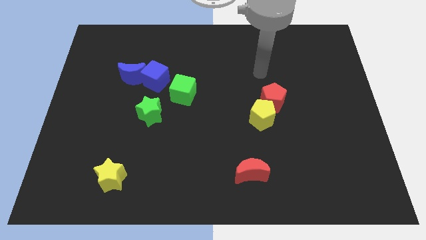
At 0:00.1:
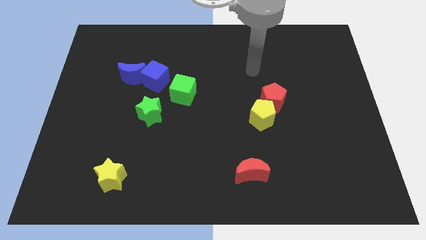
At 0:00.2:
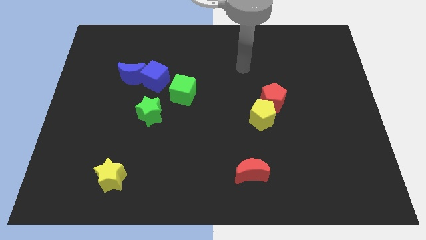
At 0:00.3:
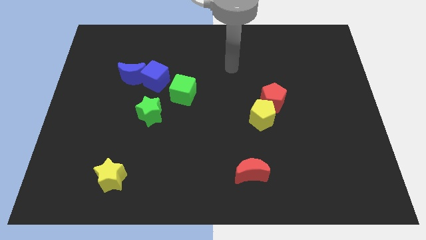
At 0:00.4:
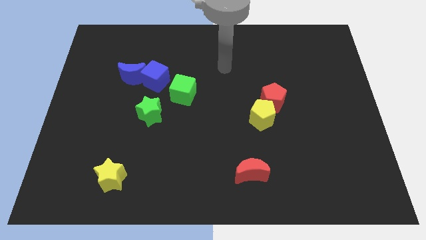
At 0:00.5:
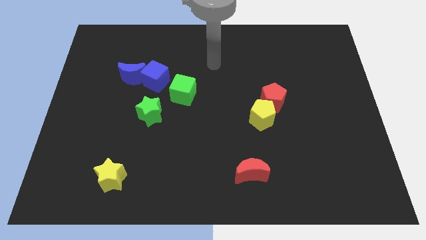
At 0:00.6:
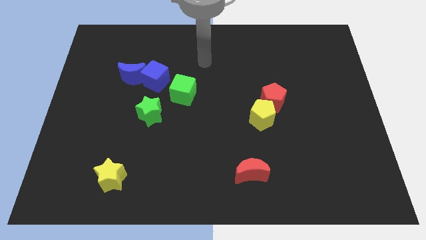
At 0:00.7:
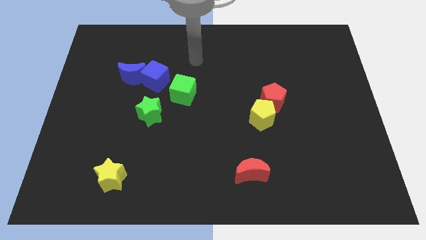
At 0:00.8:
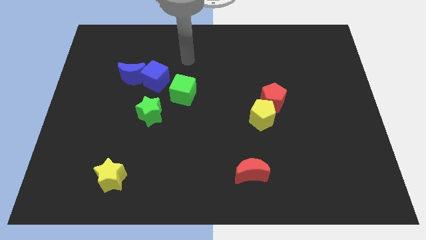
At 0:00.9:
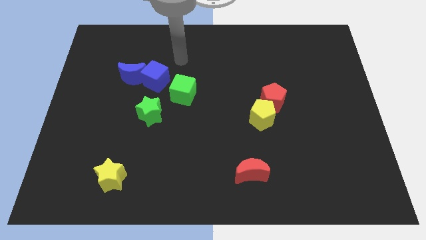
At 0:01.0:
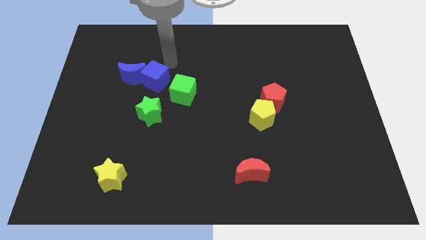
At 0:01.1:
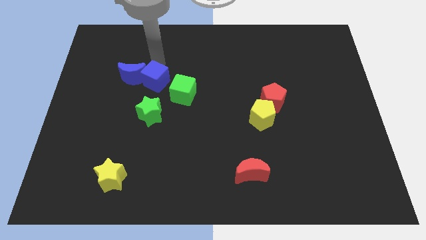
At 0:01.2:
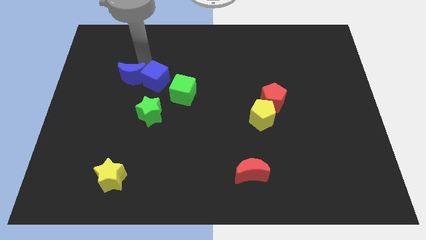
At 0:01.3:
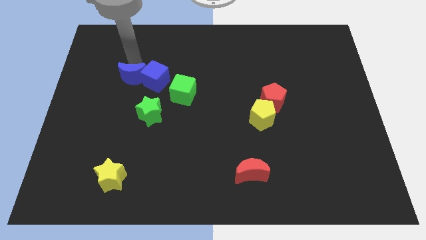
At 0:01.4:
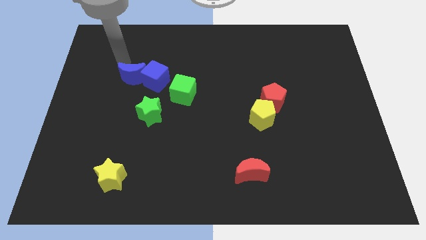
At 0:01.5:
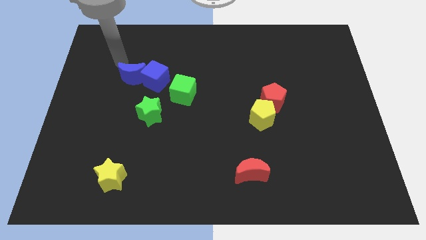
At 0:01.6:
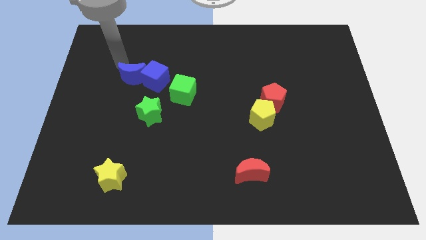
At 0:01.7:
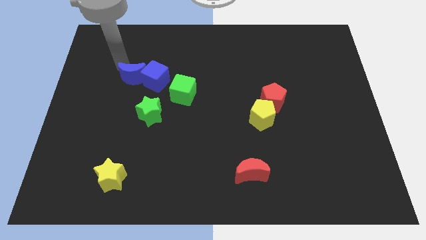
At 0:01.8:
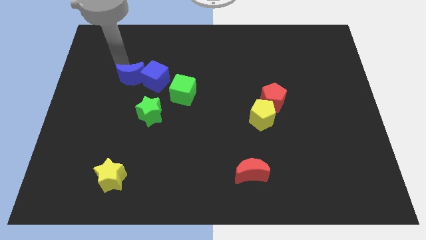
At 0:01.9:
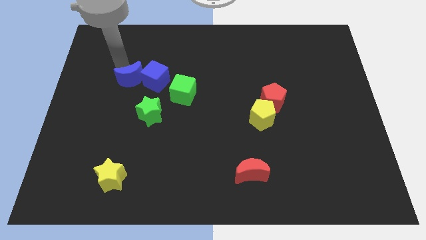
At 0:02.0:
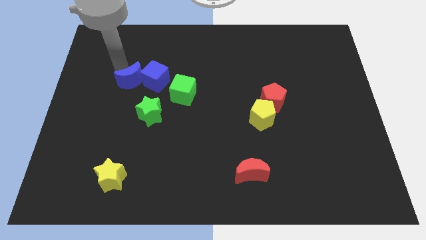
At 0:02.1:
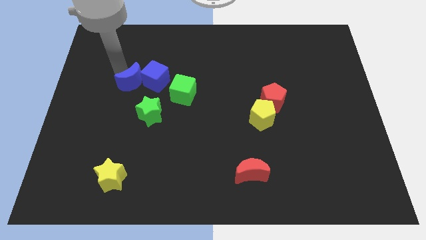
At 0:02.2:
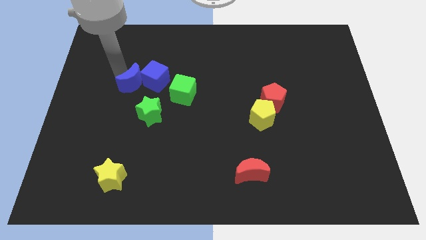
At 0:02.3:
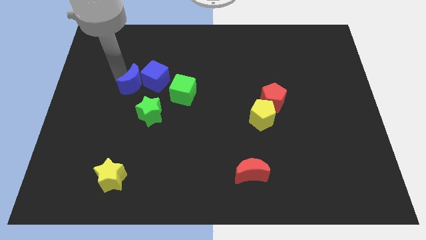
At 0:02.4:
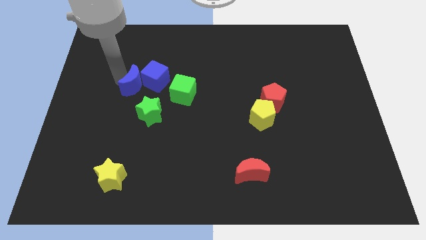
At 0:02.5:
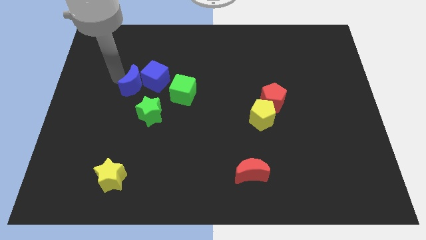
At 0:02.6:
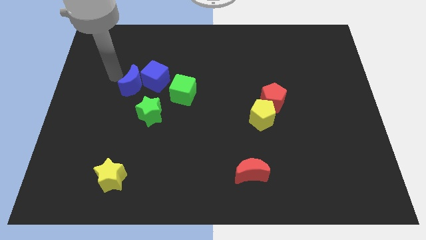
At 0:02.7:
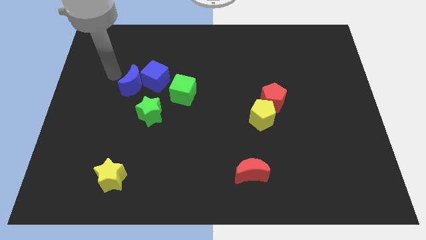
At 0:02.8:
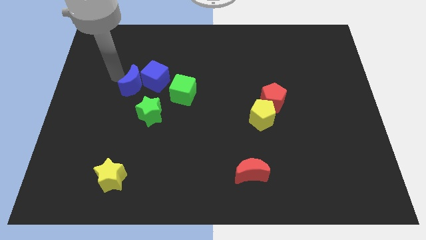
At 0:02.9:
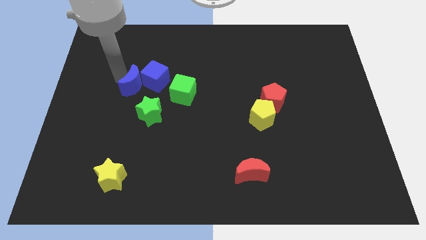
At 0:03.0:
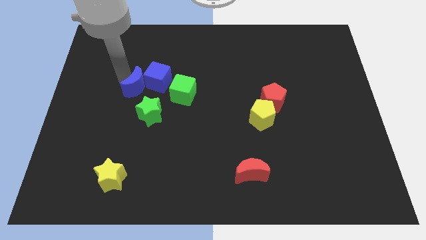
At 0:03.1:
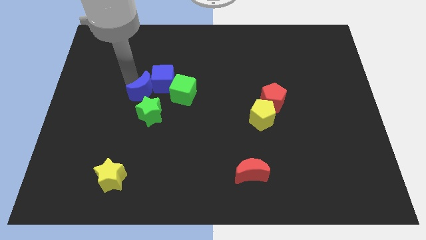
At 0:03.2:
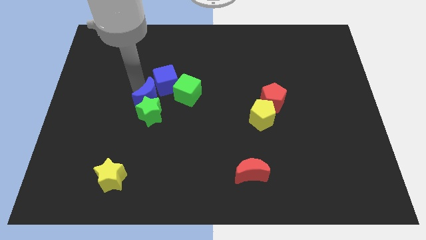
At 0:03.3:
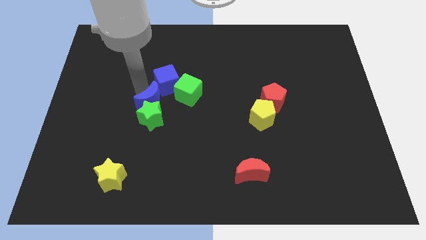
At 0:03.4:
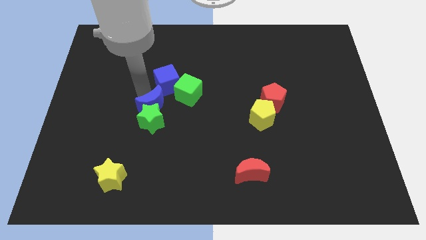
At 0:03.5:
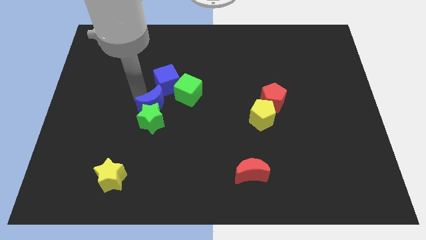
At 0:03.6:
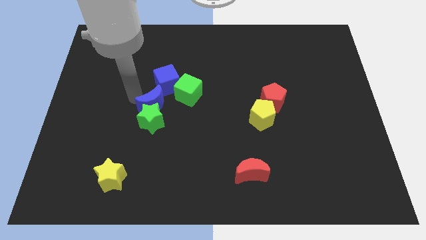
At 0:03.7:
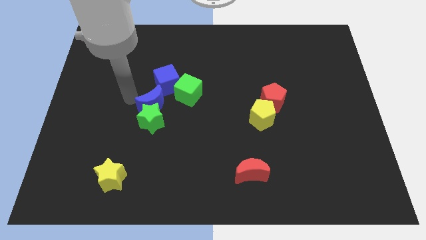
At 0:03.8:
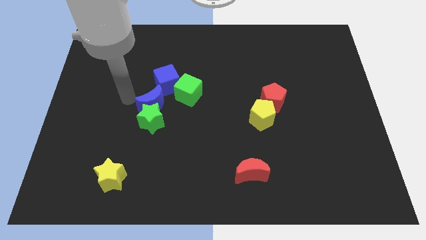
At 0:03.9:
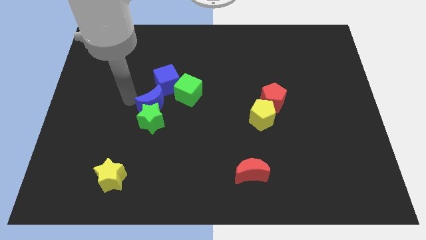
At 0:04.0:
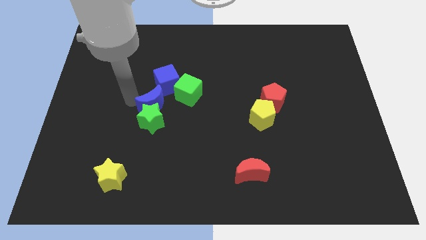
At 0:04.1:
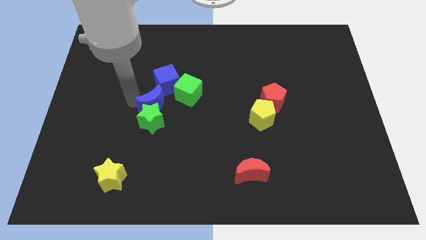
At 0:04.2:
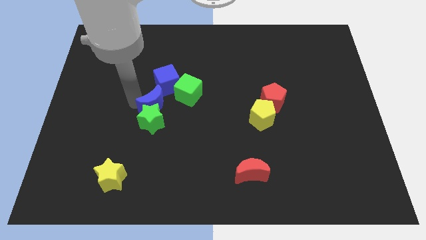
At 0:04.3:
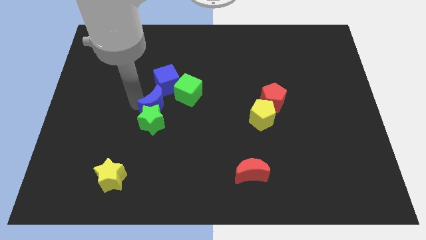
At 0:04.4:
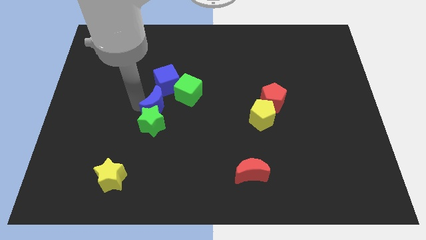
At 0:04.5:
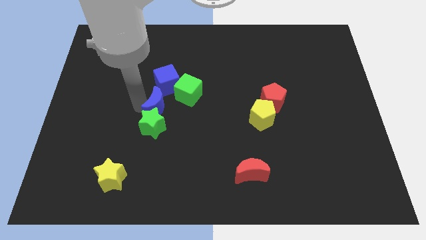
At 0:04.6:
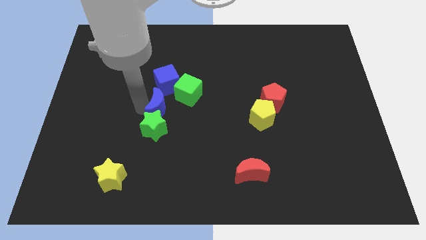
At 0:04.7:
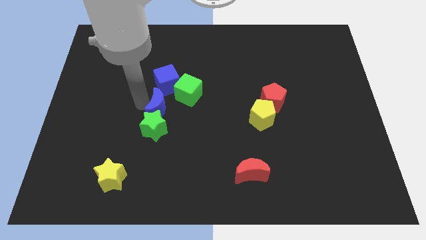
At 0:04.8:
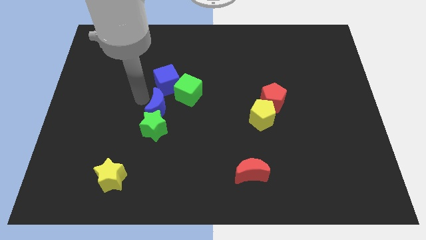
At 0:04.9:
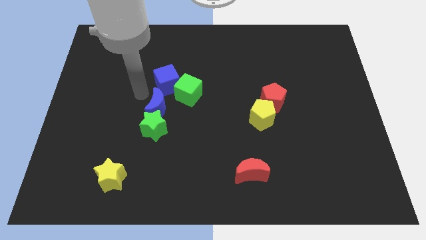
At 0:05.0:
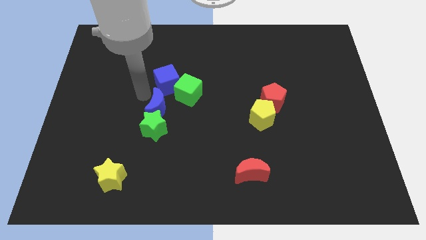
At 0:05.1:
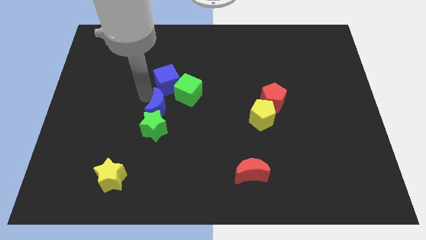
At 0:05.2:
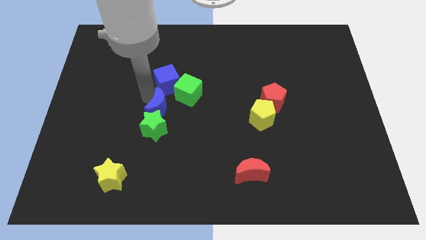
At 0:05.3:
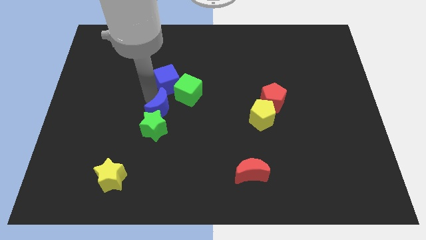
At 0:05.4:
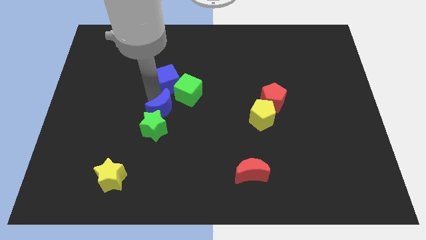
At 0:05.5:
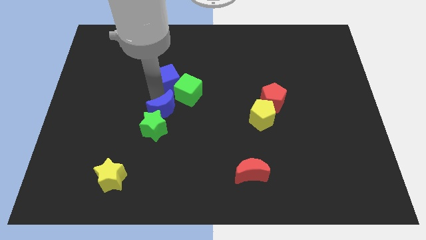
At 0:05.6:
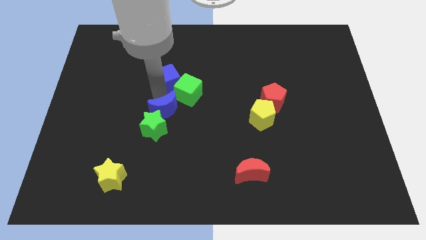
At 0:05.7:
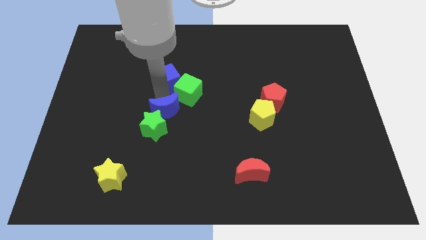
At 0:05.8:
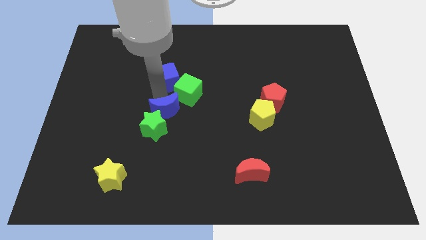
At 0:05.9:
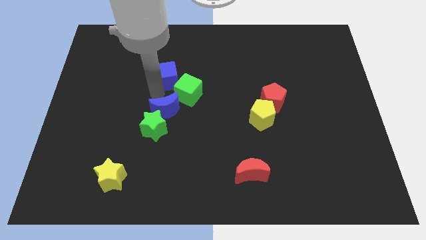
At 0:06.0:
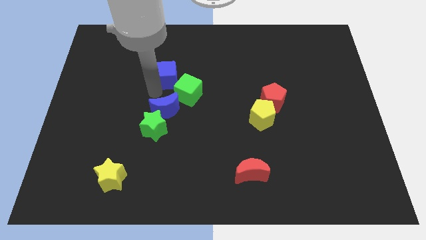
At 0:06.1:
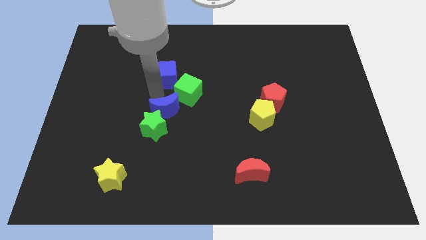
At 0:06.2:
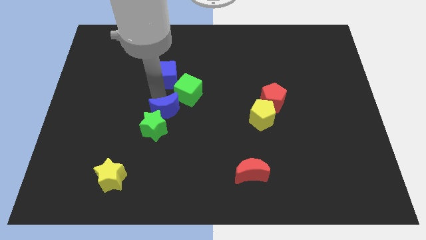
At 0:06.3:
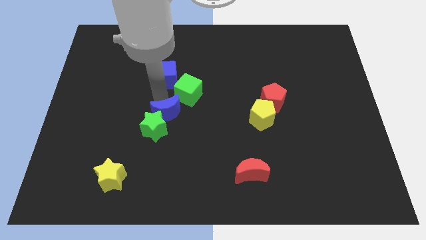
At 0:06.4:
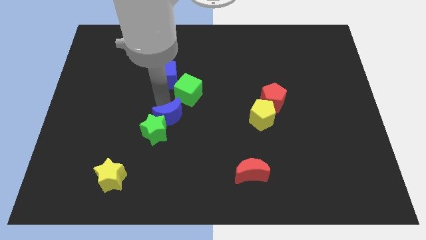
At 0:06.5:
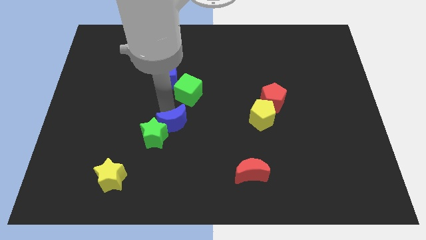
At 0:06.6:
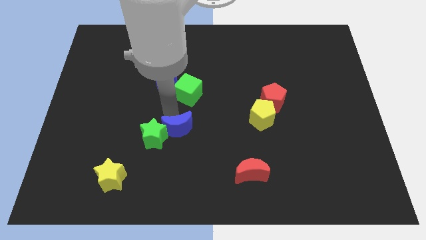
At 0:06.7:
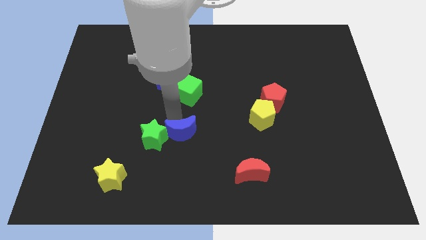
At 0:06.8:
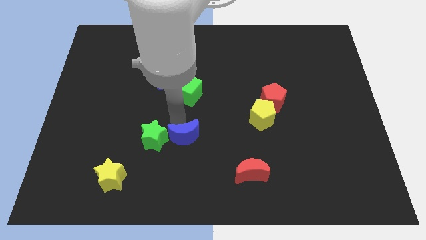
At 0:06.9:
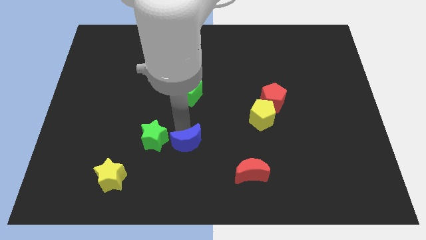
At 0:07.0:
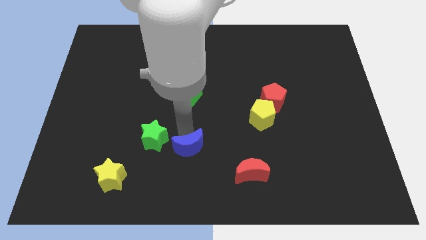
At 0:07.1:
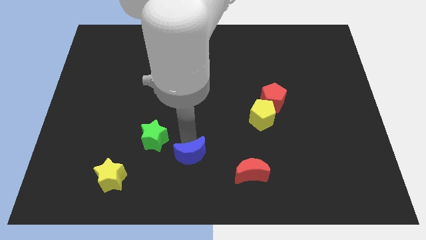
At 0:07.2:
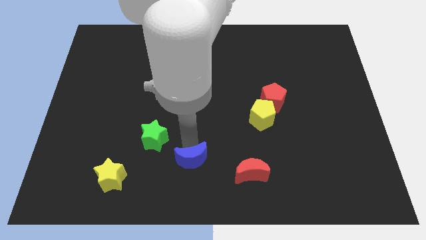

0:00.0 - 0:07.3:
push the blue moon to the bottom side

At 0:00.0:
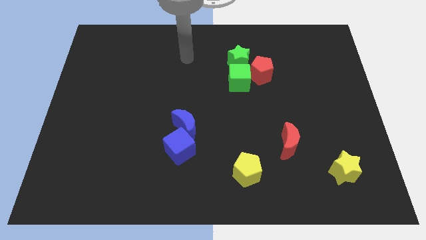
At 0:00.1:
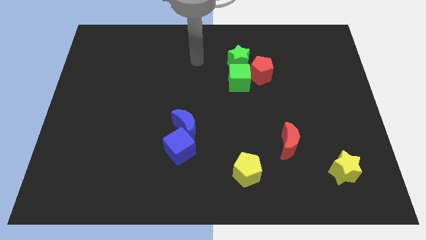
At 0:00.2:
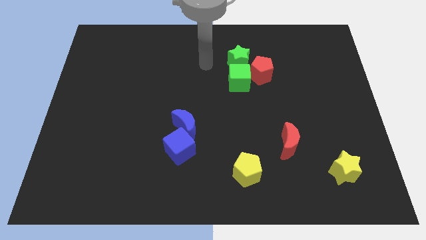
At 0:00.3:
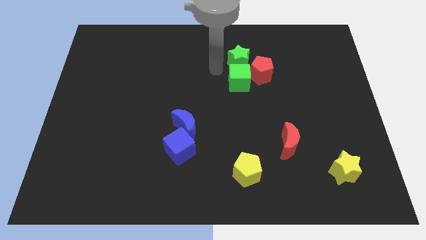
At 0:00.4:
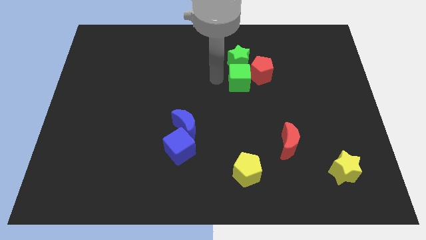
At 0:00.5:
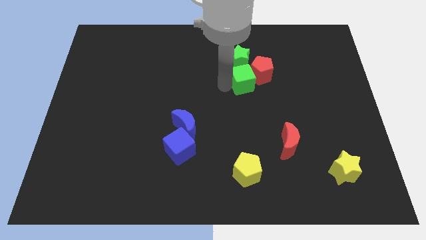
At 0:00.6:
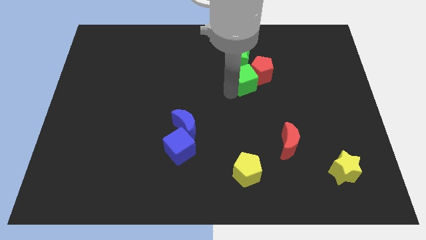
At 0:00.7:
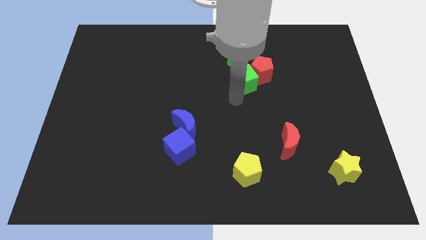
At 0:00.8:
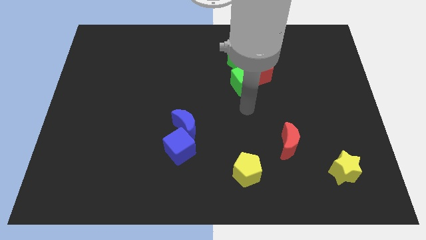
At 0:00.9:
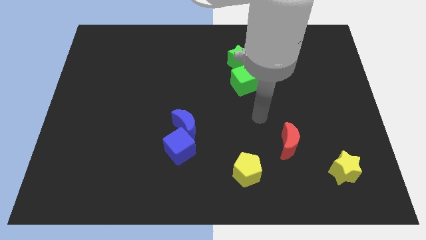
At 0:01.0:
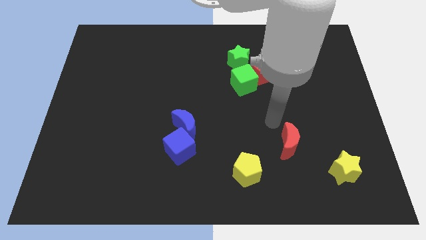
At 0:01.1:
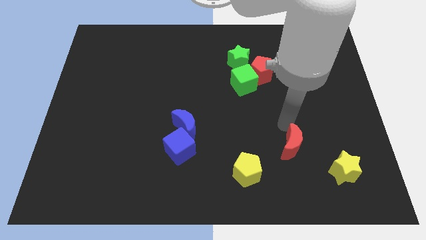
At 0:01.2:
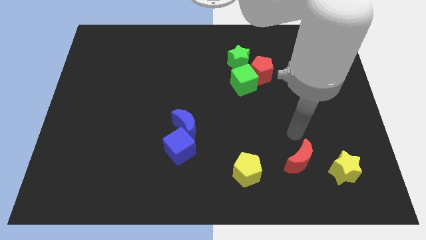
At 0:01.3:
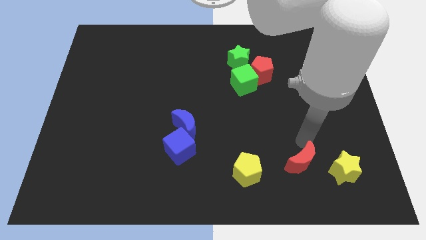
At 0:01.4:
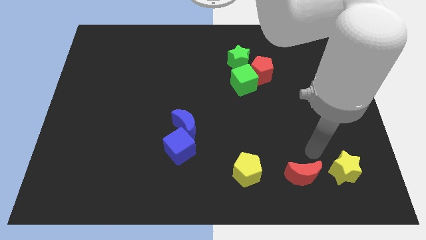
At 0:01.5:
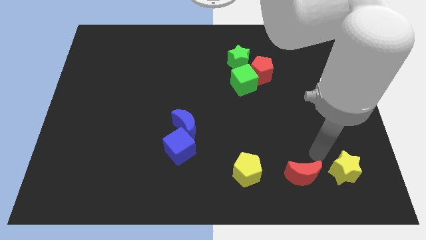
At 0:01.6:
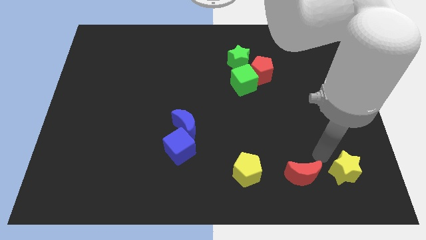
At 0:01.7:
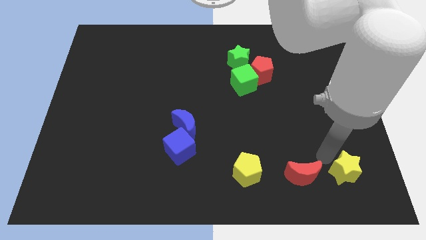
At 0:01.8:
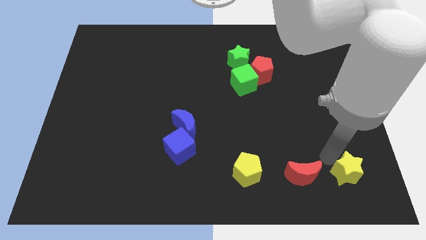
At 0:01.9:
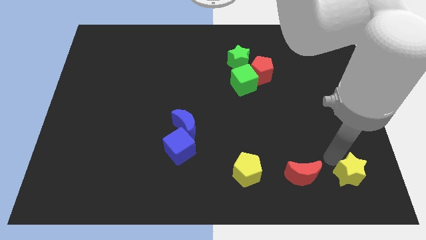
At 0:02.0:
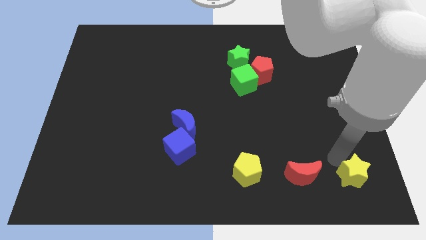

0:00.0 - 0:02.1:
move the yellow star to the bottom right of the board
